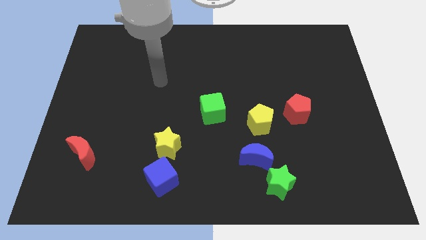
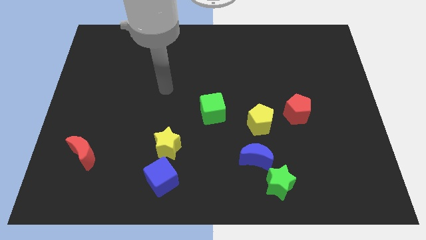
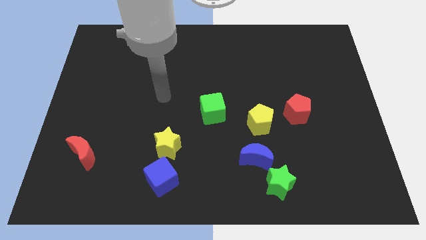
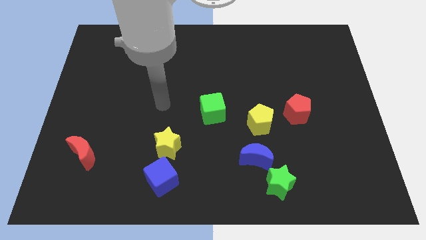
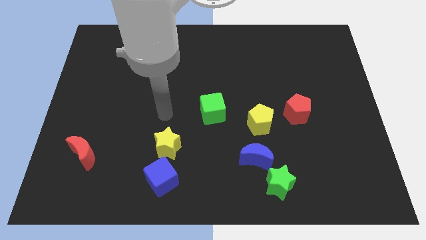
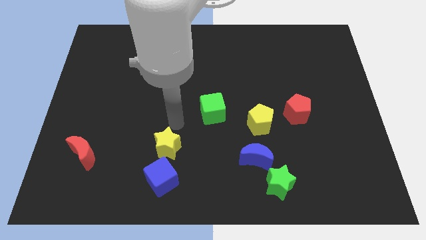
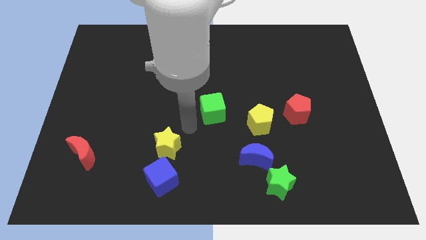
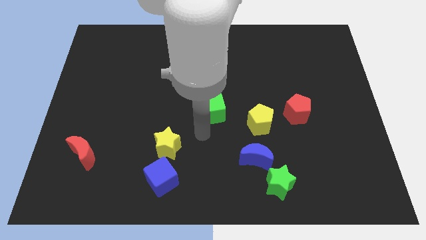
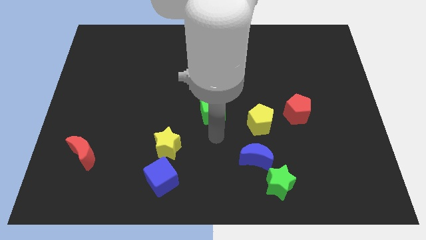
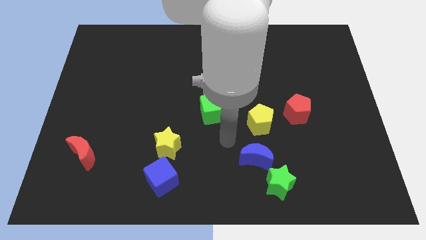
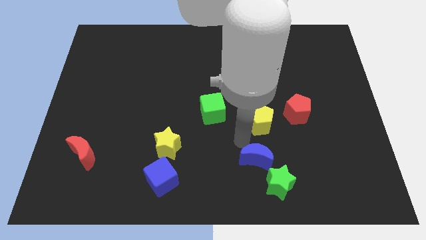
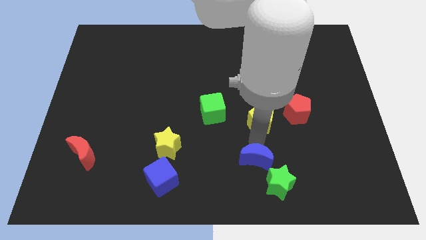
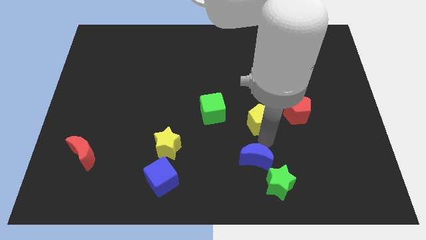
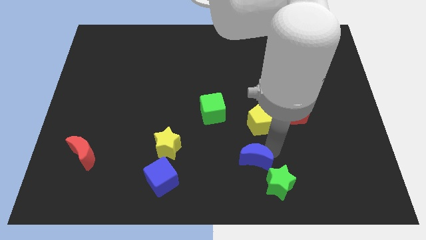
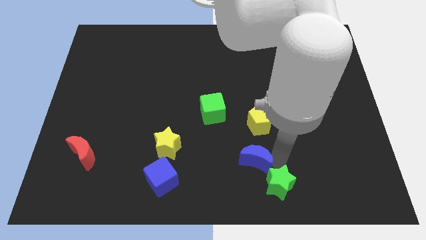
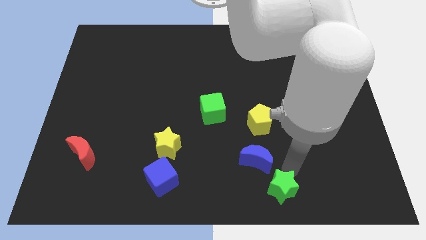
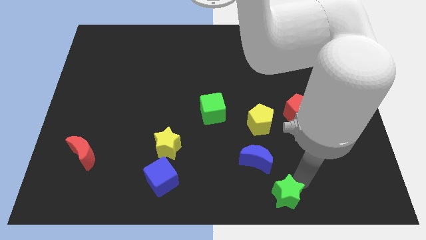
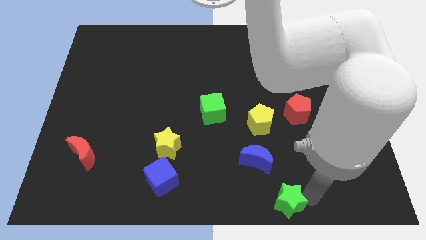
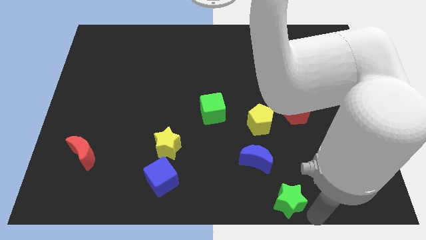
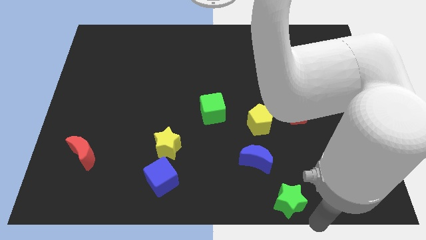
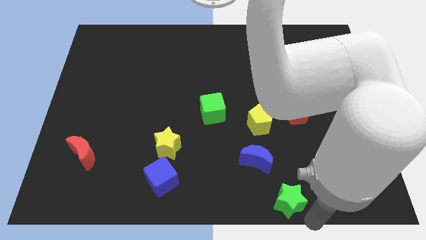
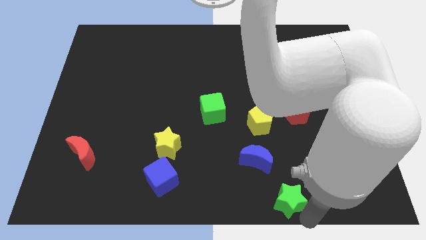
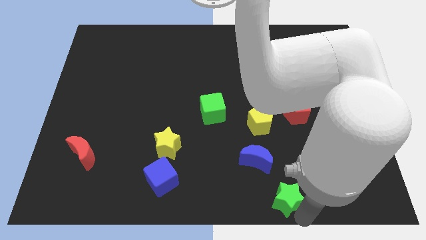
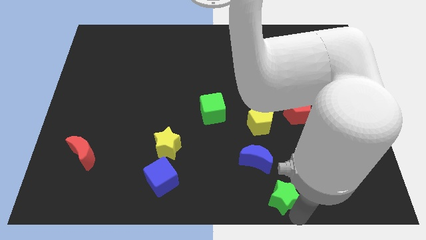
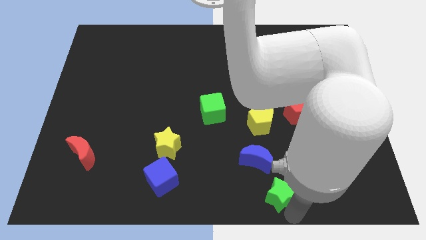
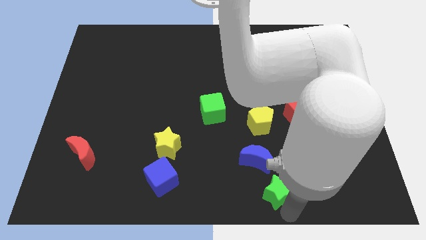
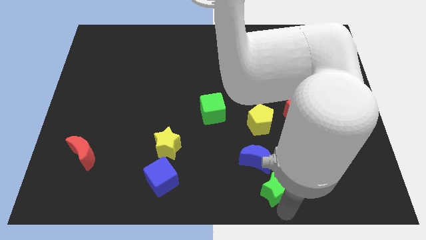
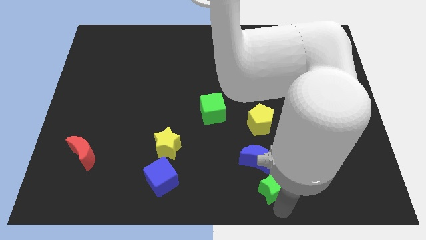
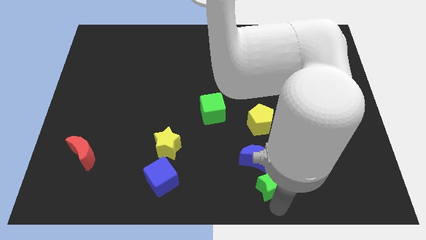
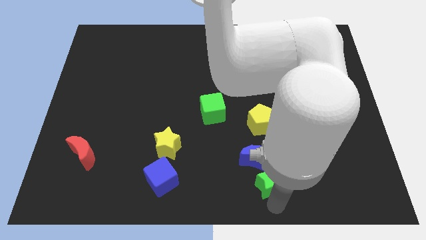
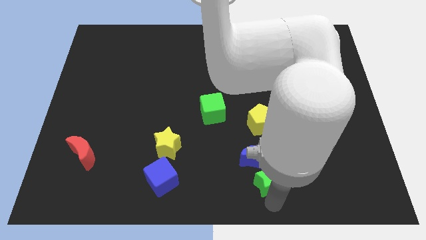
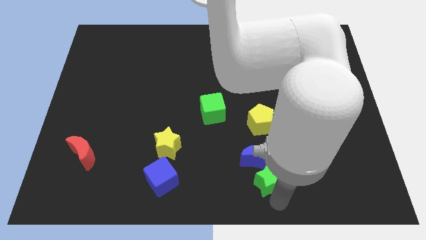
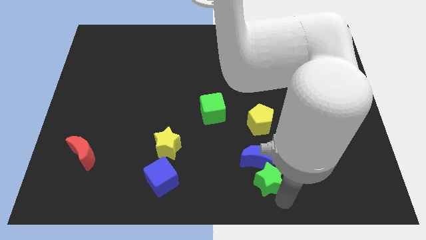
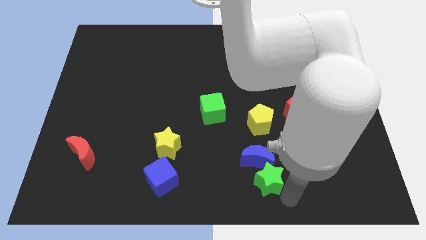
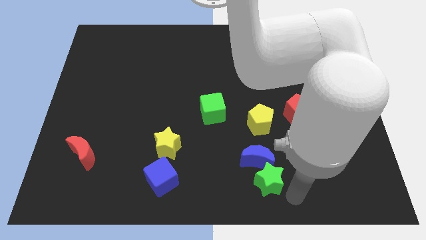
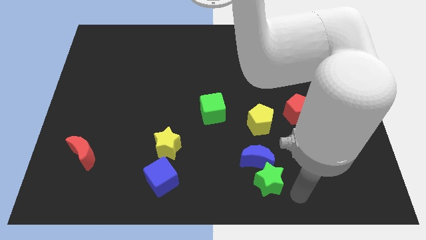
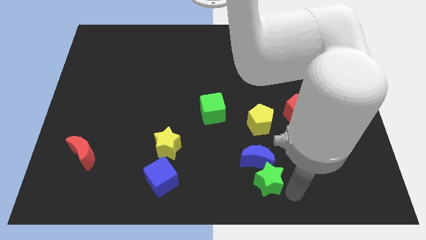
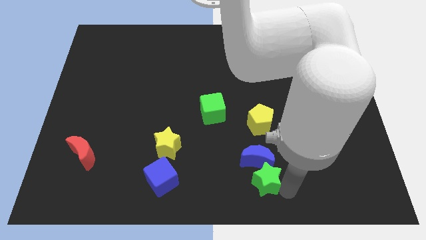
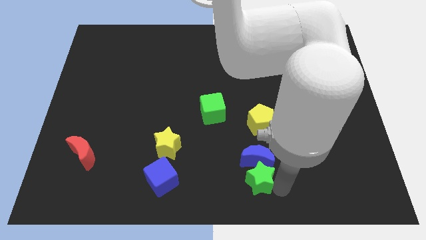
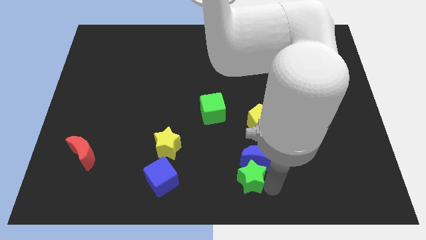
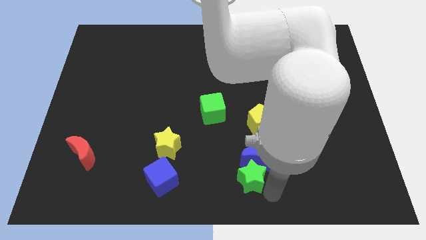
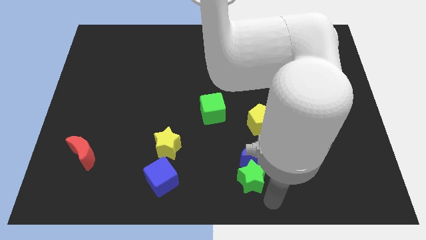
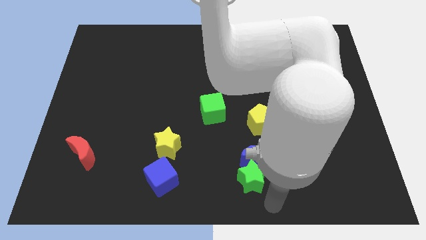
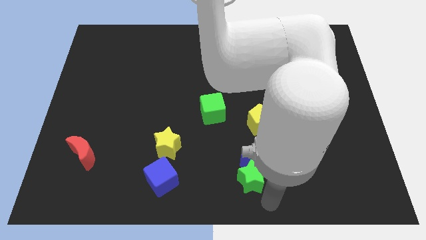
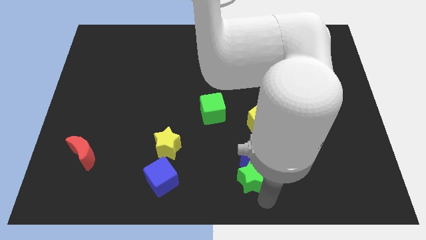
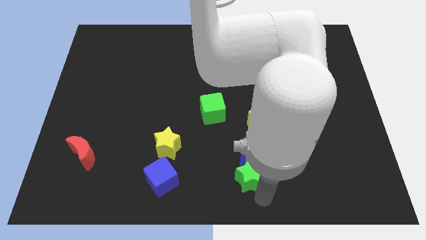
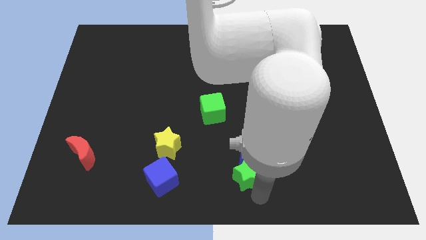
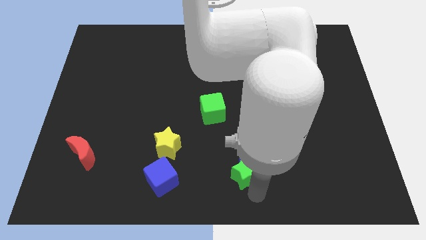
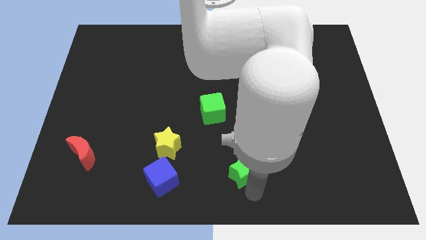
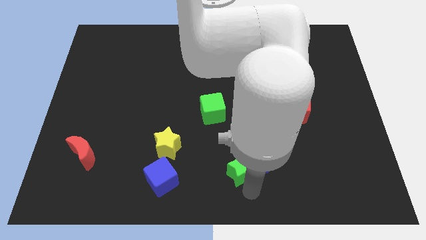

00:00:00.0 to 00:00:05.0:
move the green star a little upwards and to the left diagonally

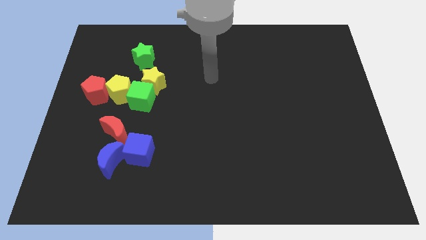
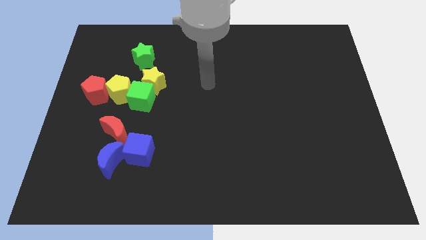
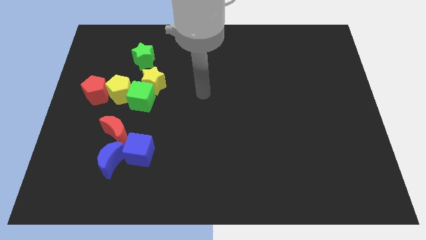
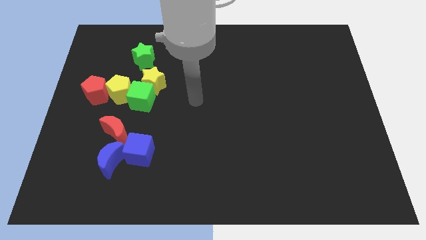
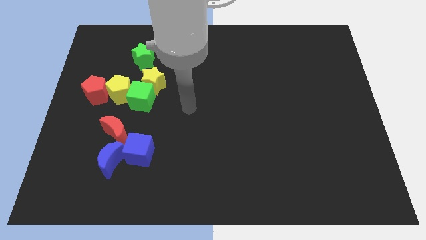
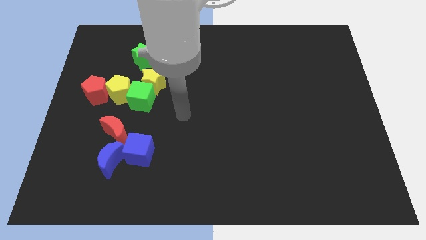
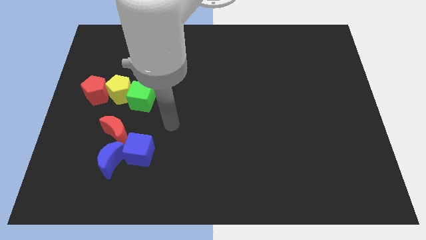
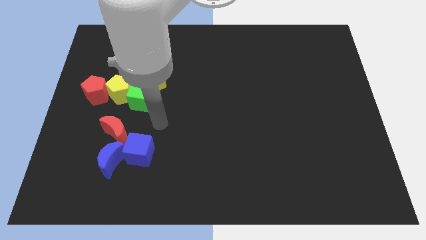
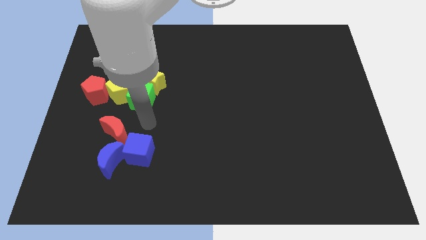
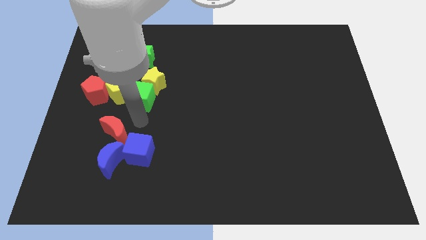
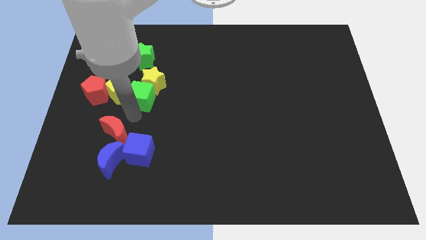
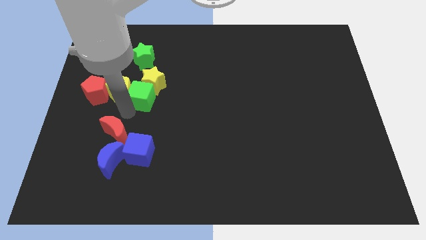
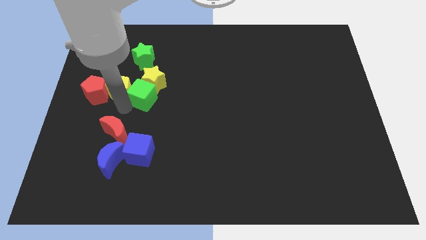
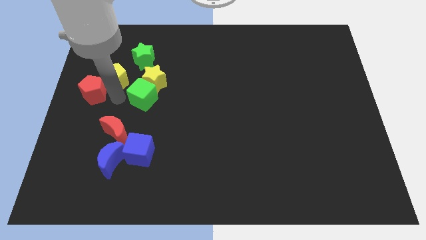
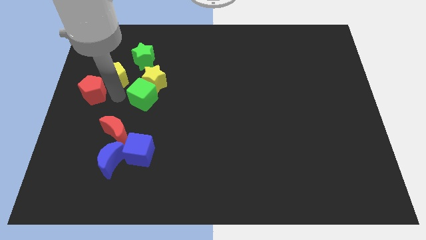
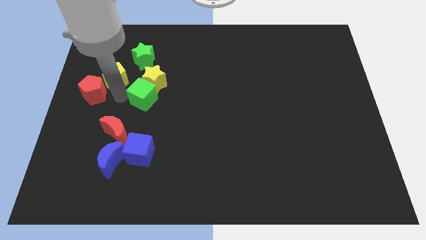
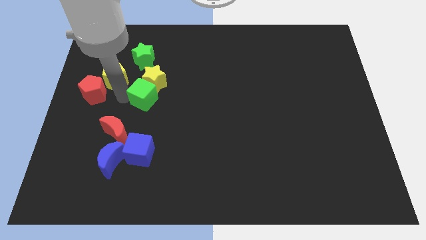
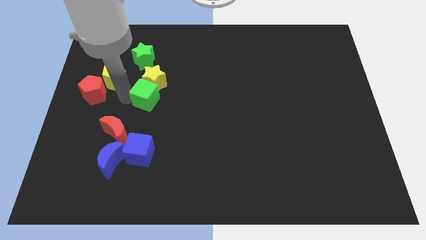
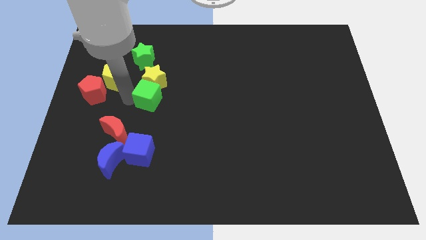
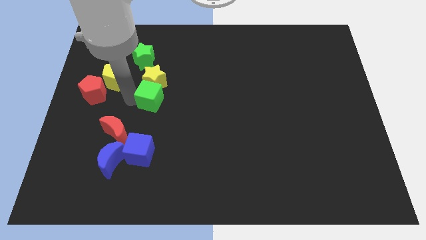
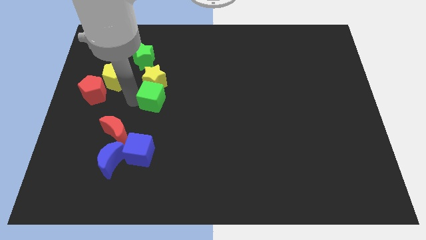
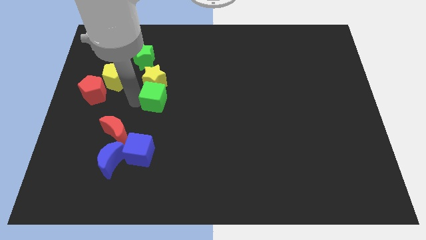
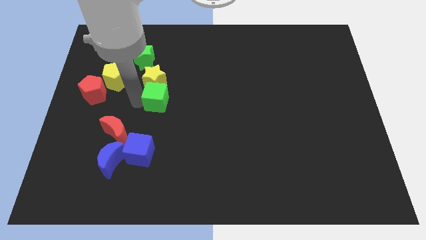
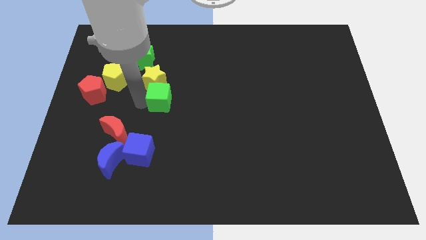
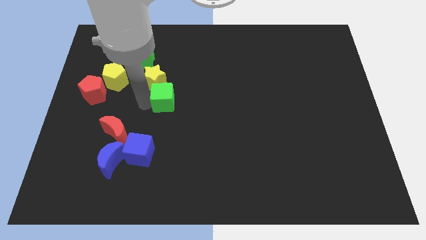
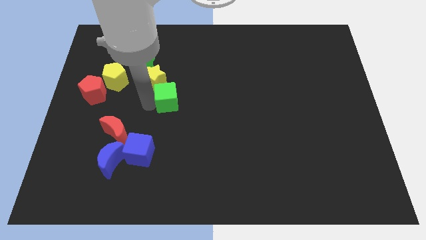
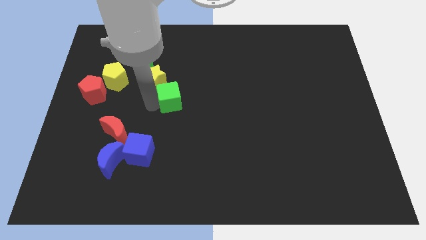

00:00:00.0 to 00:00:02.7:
push the green cube somewhat right

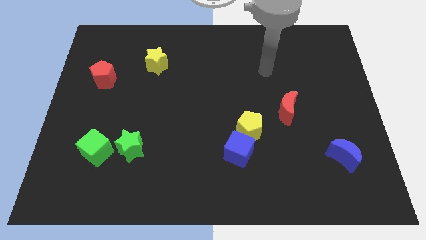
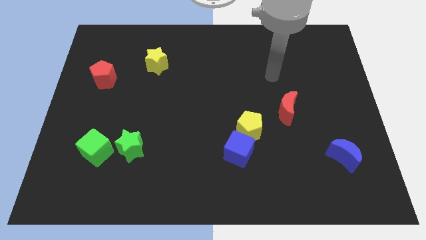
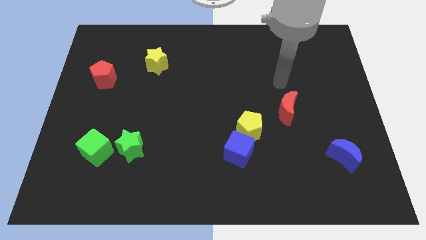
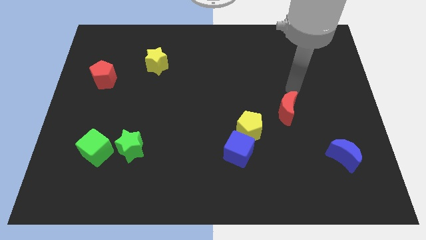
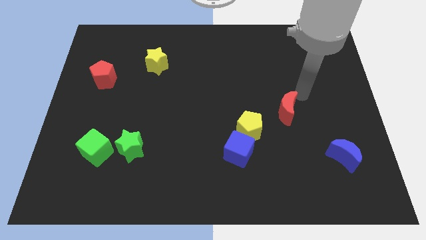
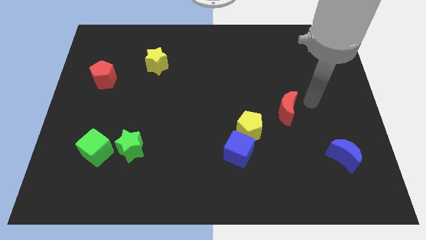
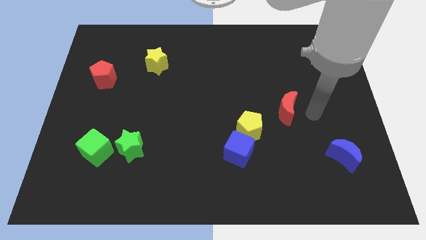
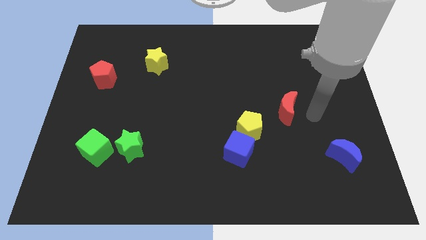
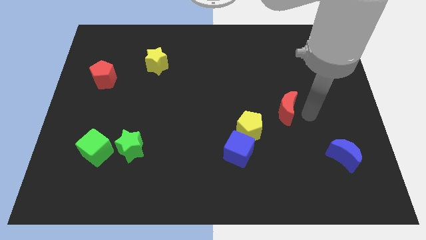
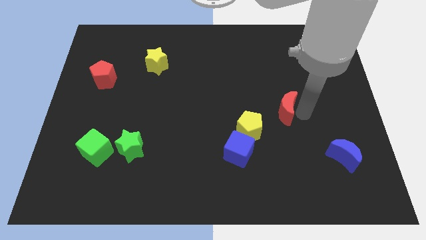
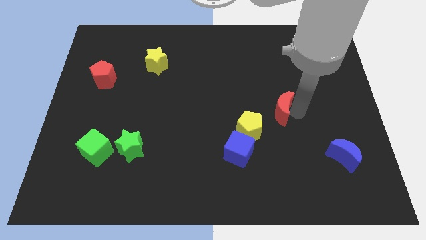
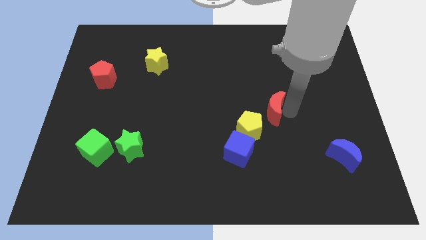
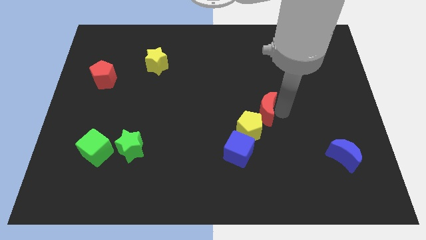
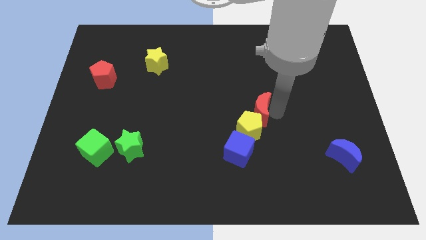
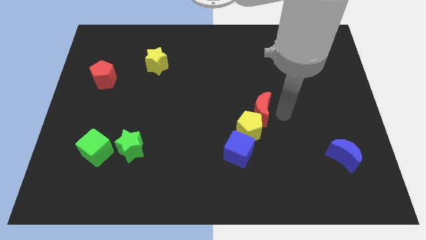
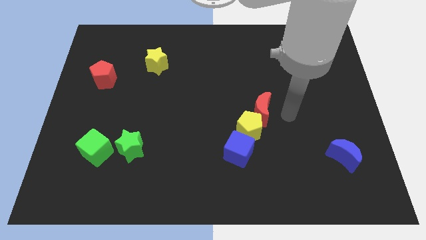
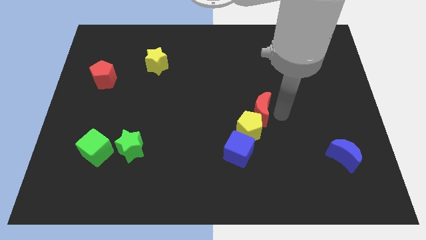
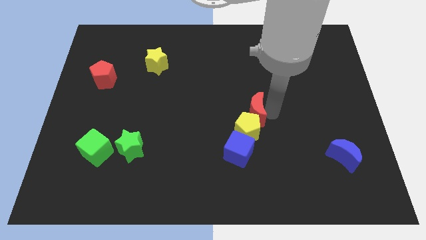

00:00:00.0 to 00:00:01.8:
push the red moon left a little
